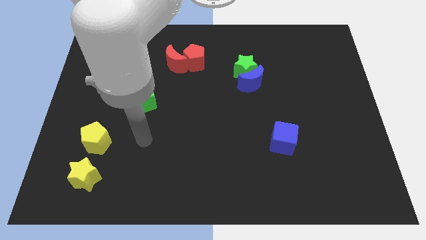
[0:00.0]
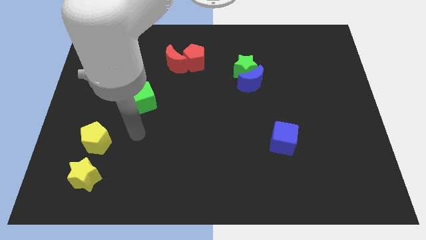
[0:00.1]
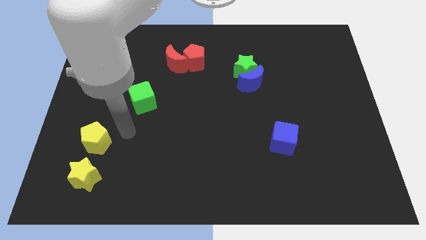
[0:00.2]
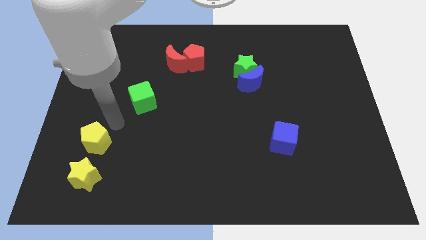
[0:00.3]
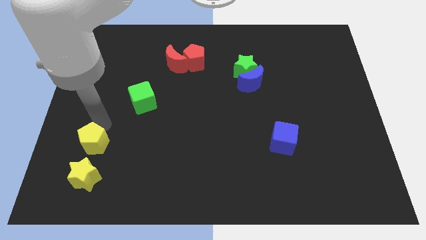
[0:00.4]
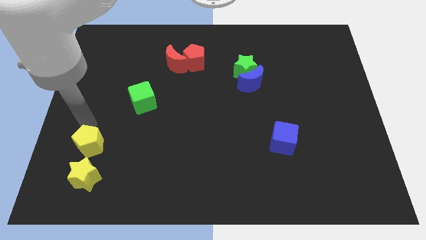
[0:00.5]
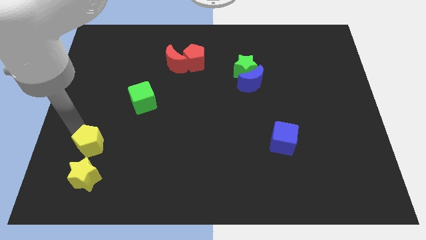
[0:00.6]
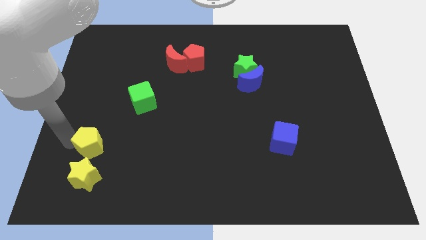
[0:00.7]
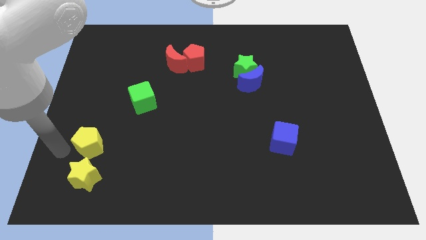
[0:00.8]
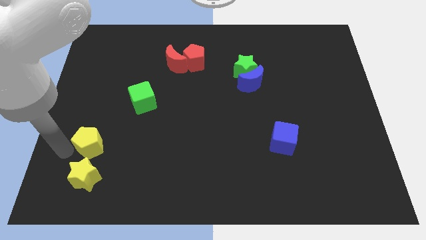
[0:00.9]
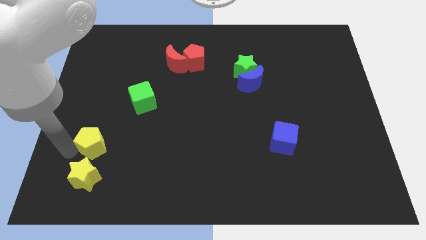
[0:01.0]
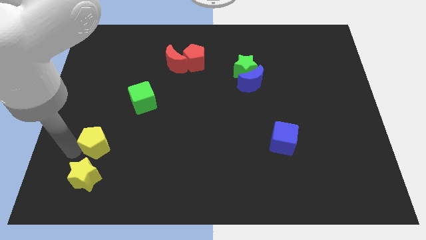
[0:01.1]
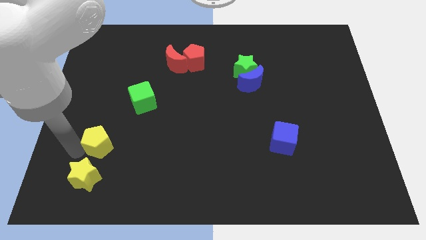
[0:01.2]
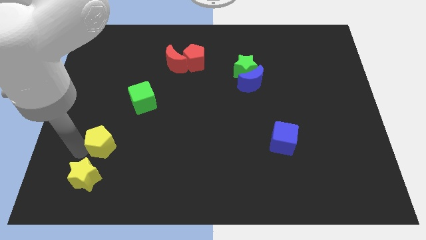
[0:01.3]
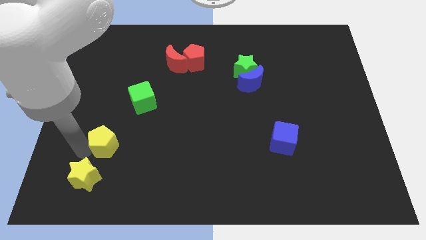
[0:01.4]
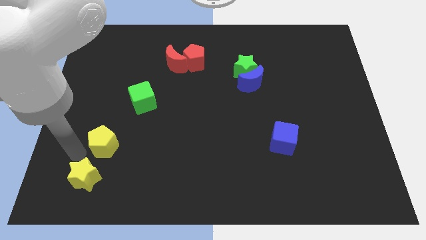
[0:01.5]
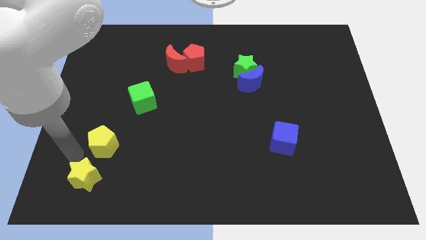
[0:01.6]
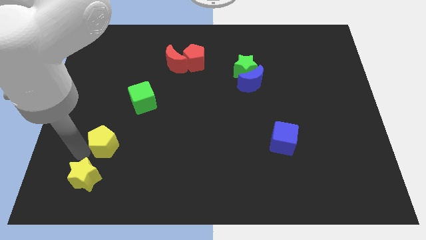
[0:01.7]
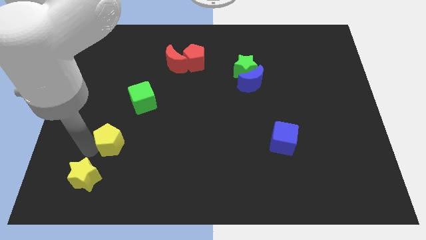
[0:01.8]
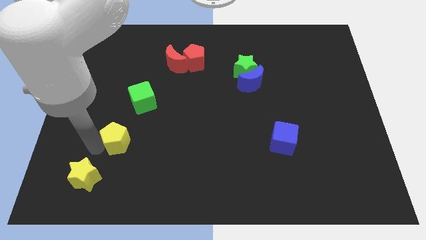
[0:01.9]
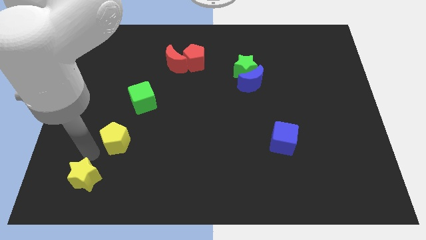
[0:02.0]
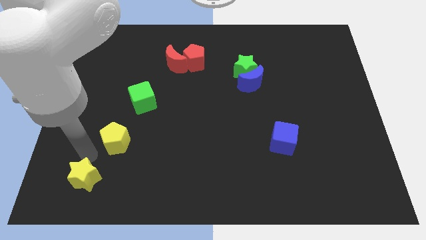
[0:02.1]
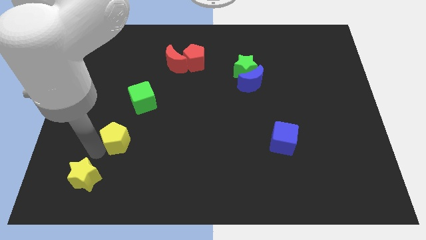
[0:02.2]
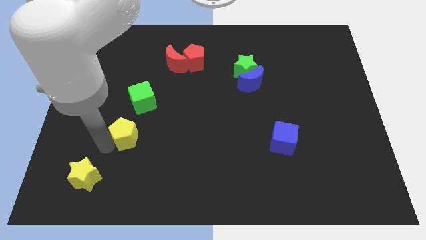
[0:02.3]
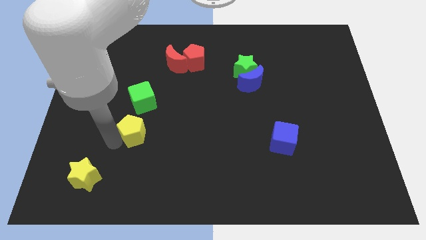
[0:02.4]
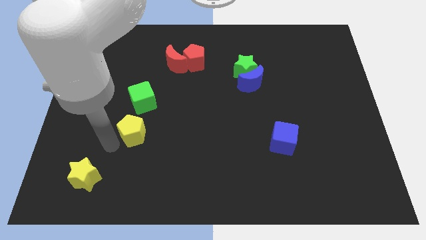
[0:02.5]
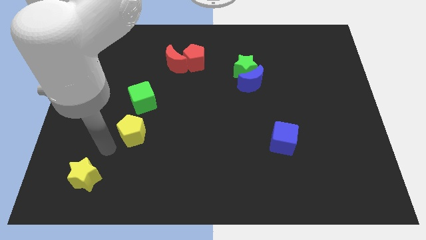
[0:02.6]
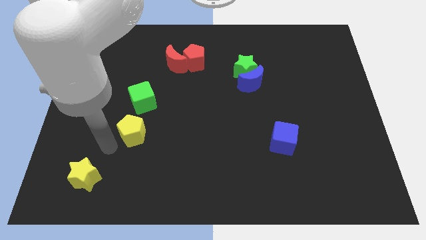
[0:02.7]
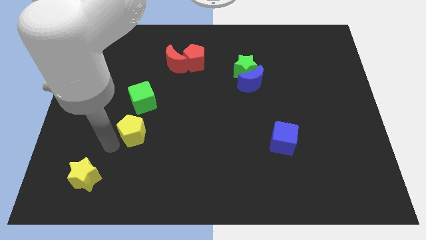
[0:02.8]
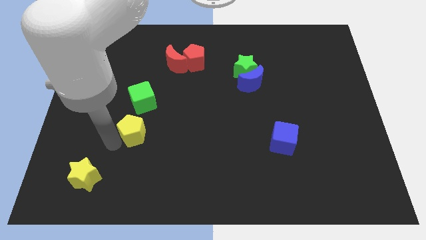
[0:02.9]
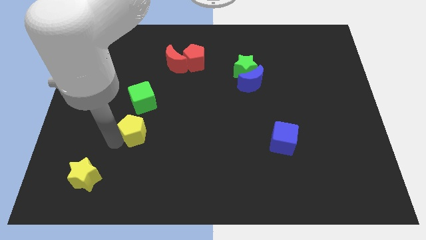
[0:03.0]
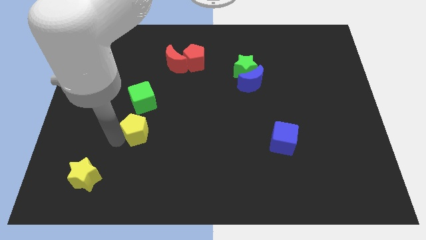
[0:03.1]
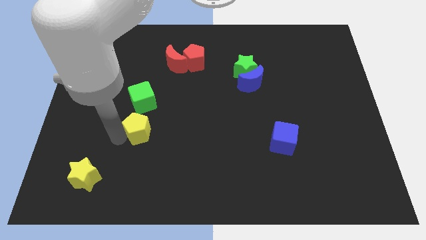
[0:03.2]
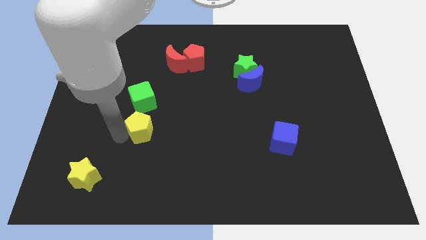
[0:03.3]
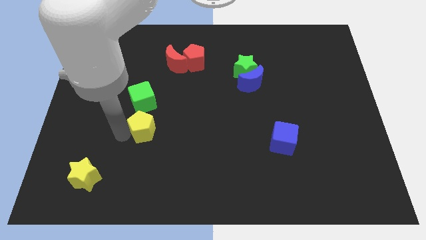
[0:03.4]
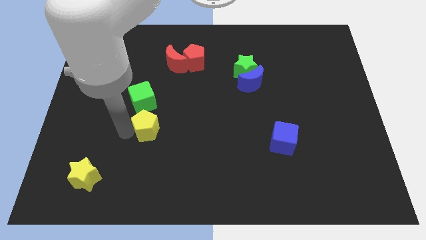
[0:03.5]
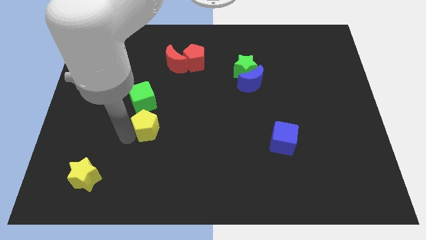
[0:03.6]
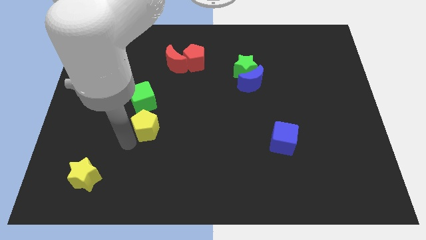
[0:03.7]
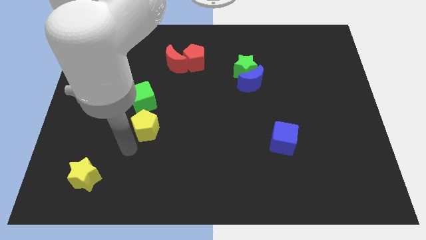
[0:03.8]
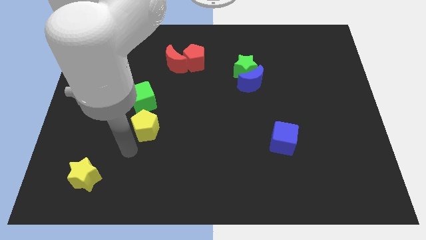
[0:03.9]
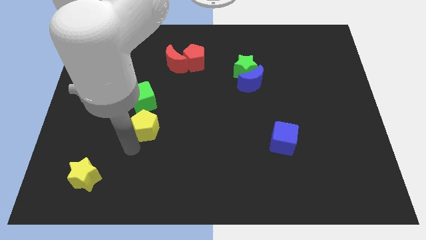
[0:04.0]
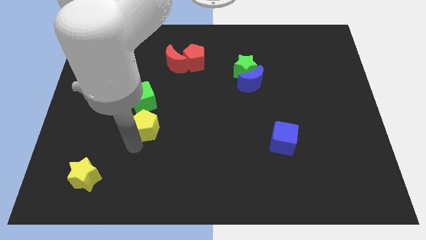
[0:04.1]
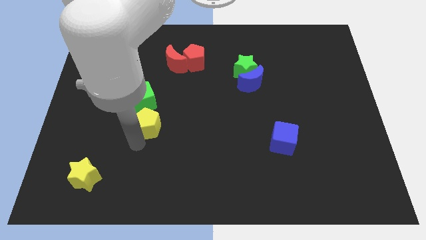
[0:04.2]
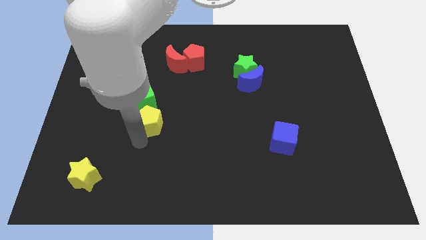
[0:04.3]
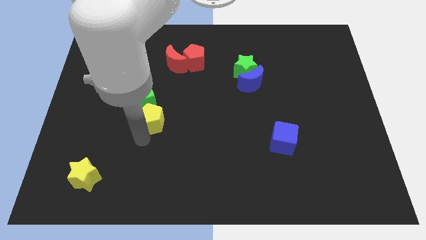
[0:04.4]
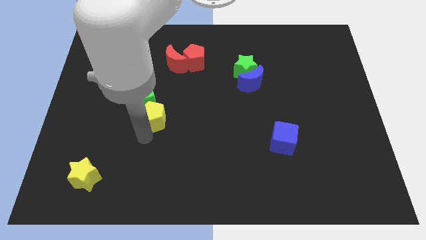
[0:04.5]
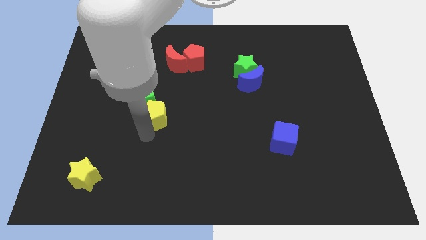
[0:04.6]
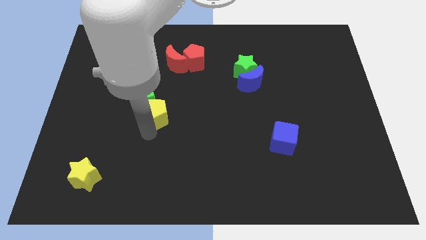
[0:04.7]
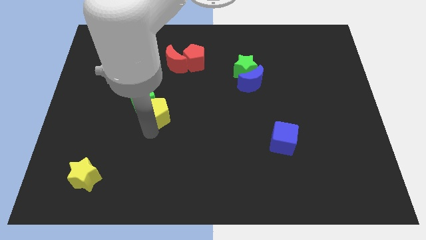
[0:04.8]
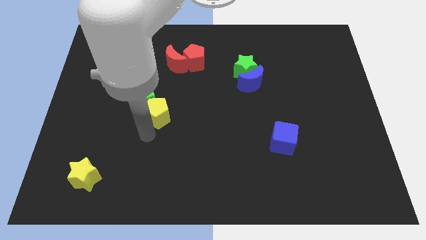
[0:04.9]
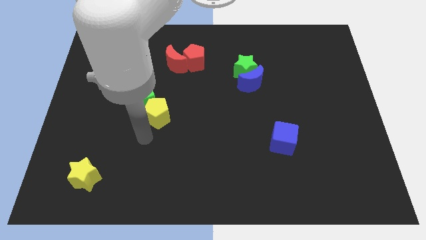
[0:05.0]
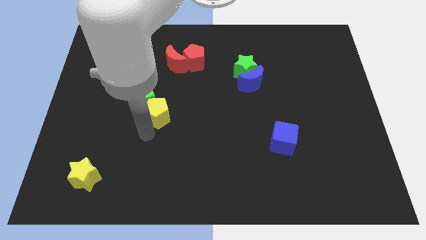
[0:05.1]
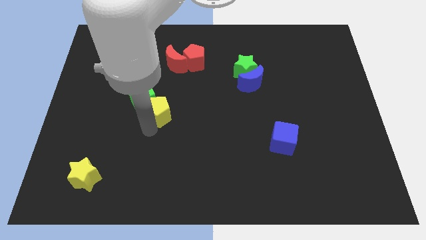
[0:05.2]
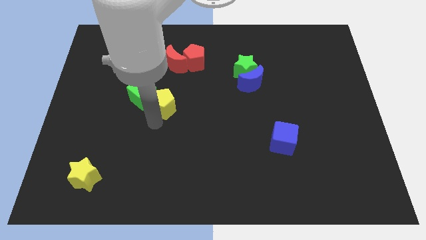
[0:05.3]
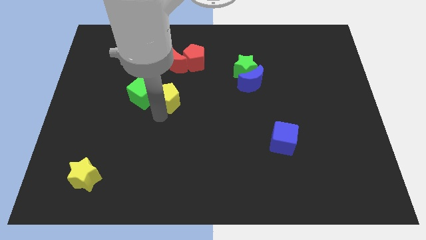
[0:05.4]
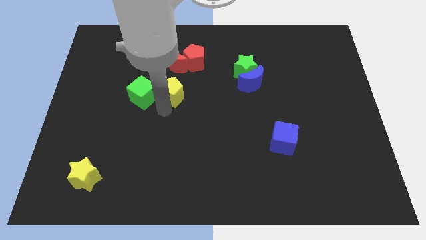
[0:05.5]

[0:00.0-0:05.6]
put the yellow pentagon diagonally up and to the right of the green cube

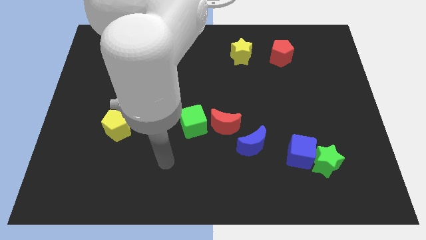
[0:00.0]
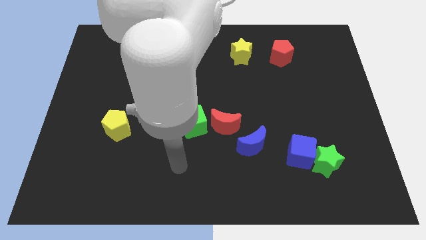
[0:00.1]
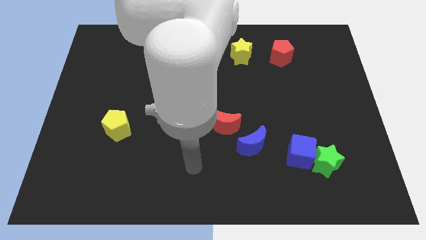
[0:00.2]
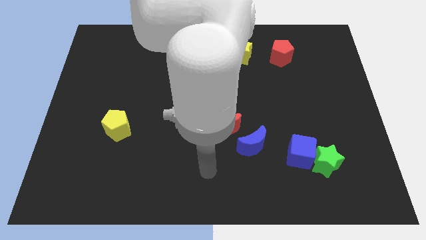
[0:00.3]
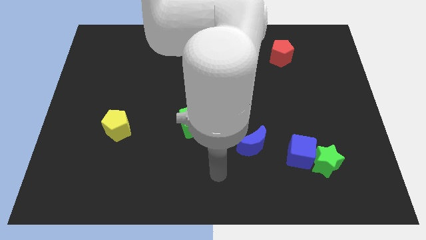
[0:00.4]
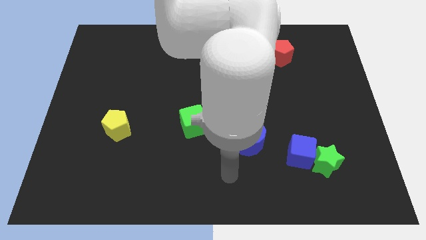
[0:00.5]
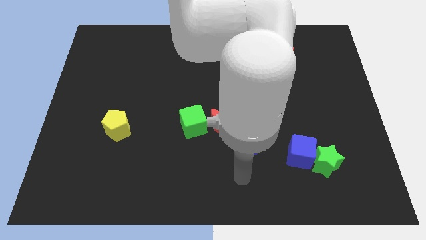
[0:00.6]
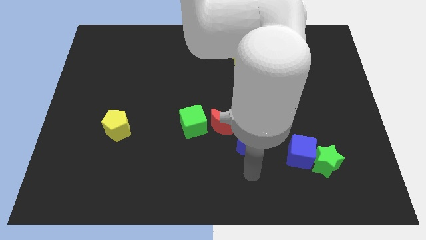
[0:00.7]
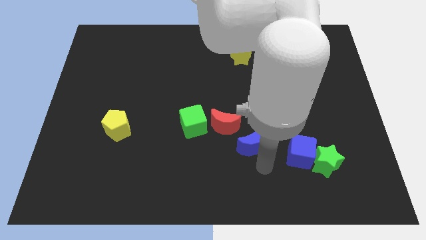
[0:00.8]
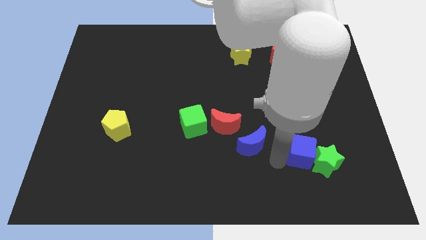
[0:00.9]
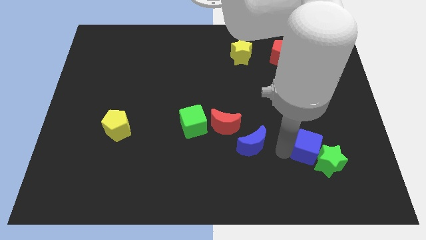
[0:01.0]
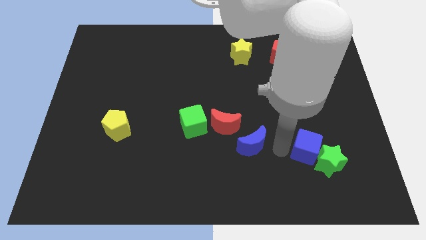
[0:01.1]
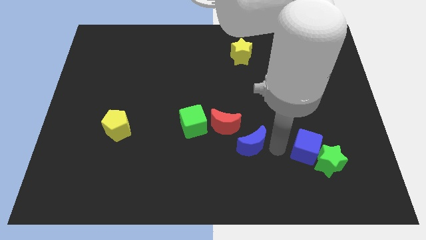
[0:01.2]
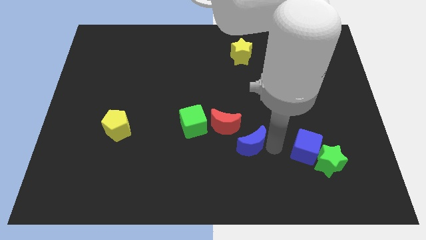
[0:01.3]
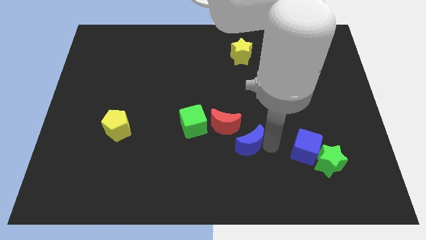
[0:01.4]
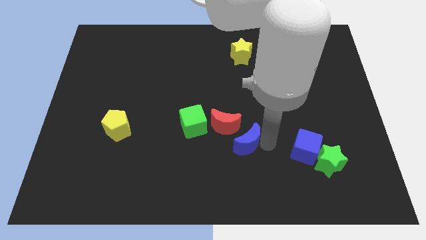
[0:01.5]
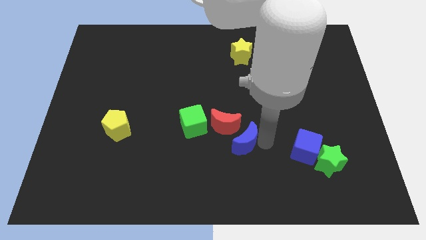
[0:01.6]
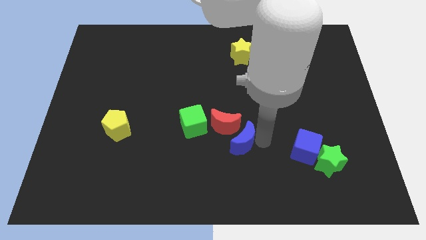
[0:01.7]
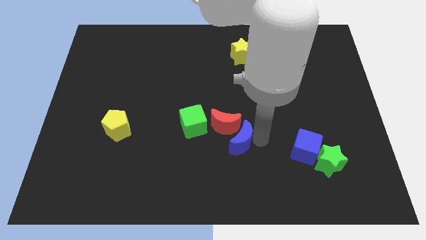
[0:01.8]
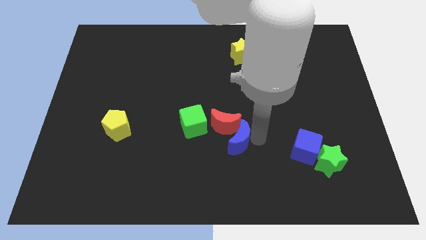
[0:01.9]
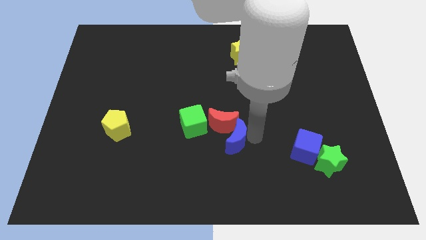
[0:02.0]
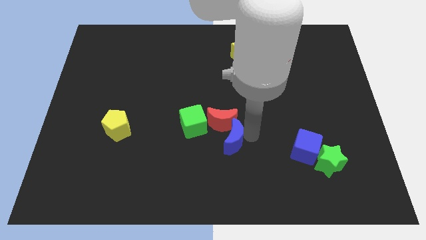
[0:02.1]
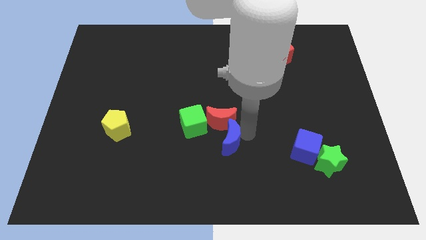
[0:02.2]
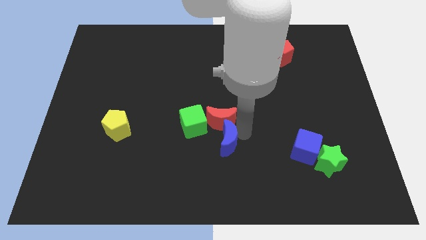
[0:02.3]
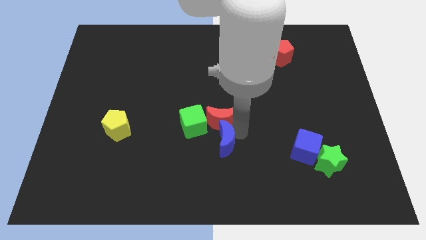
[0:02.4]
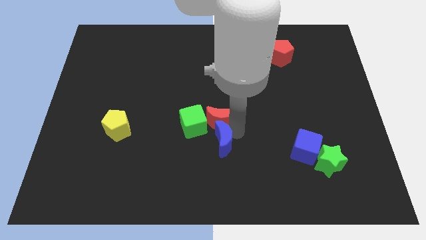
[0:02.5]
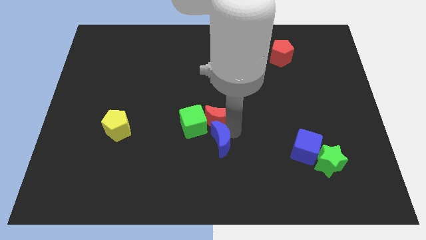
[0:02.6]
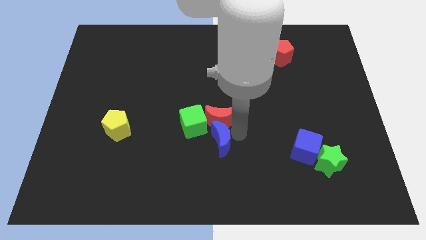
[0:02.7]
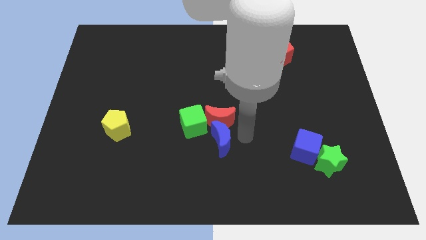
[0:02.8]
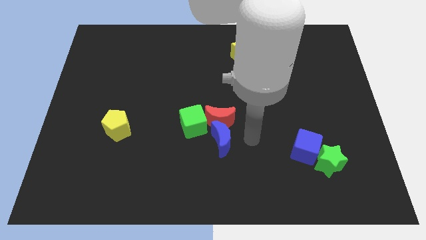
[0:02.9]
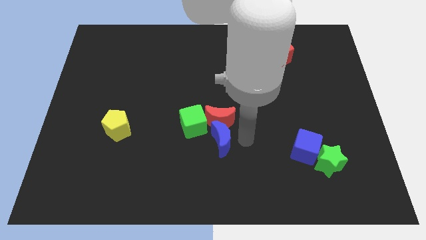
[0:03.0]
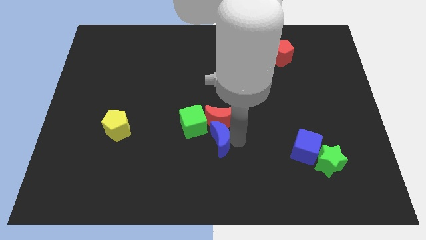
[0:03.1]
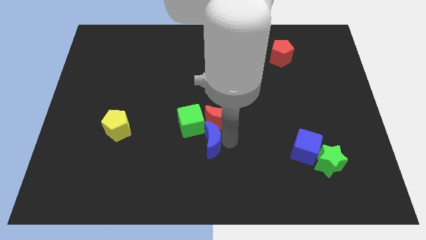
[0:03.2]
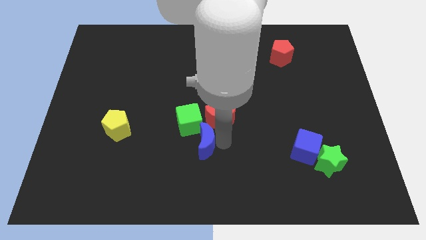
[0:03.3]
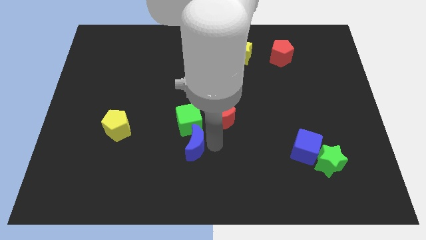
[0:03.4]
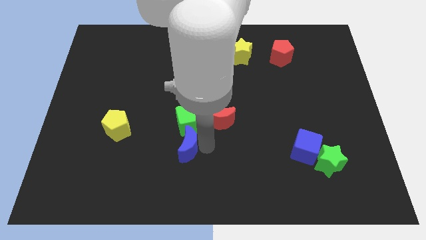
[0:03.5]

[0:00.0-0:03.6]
slide the blue moon to the bottom left side of the green cube
